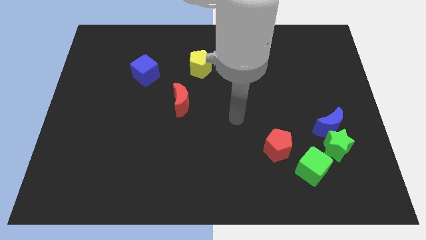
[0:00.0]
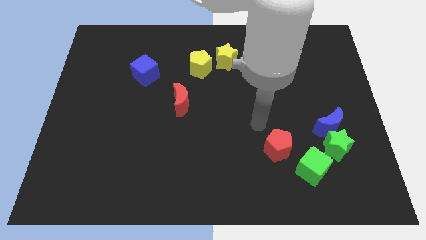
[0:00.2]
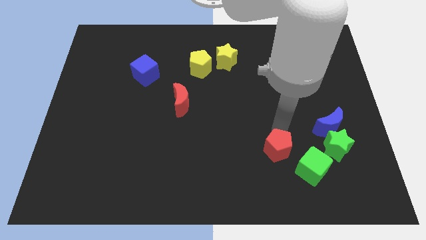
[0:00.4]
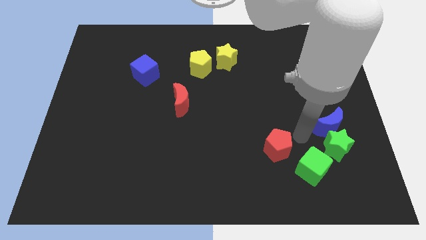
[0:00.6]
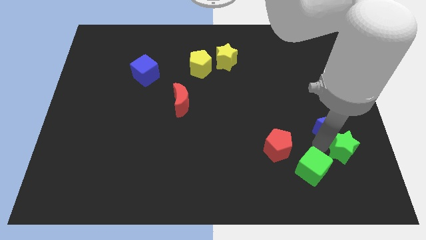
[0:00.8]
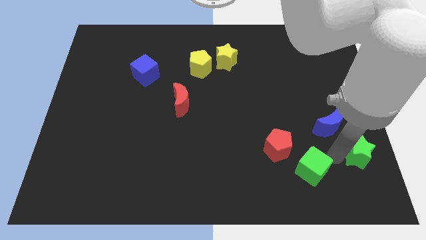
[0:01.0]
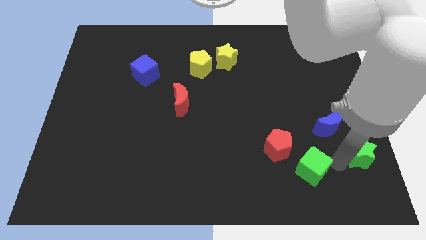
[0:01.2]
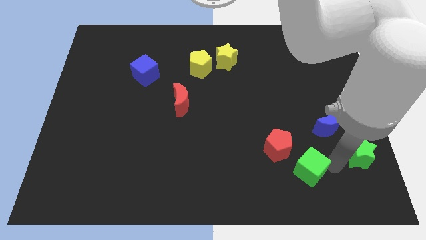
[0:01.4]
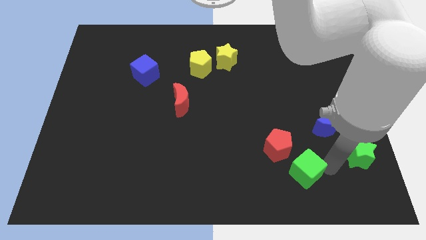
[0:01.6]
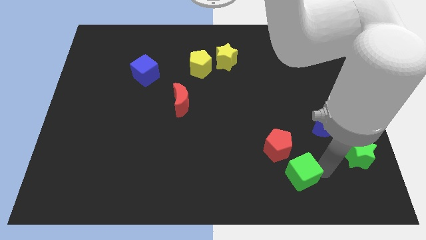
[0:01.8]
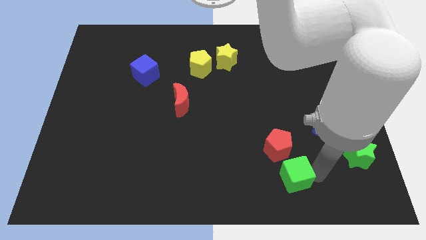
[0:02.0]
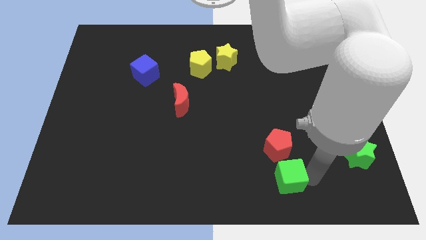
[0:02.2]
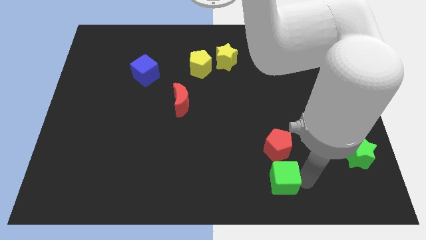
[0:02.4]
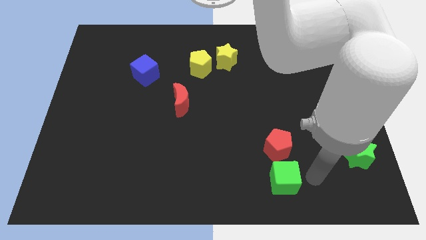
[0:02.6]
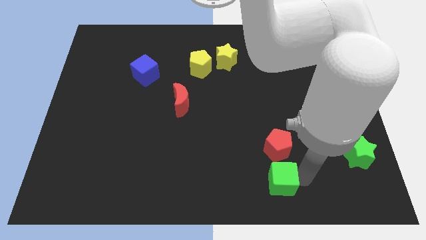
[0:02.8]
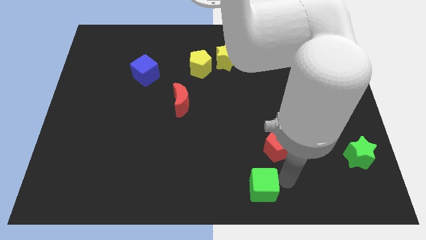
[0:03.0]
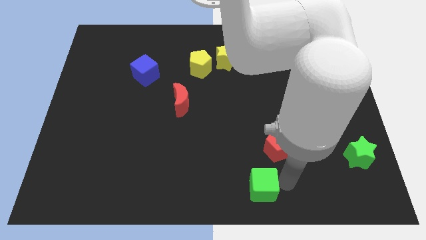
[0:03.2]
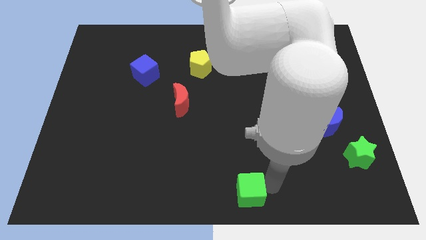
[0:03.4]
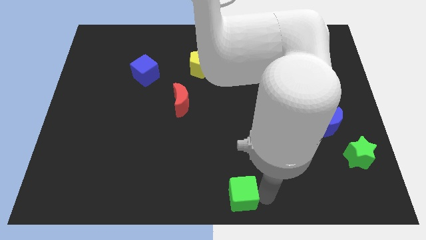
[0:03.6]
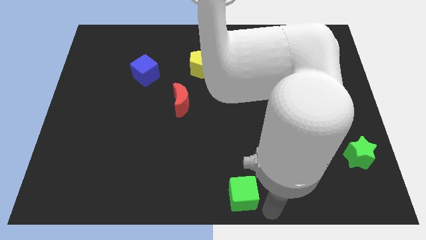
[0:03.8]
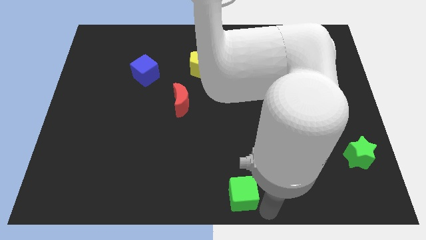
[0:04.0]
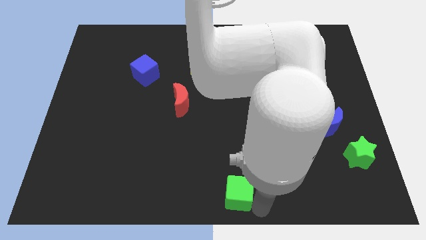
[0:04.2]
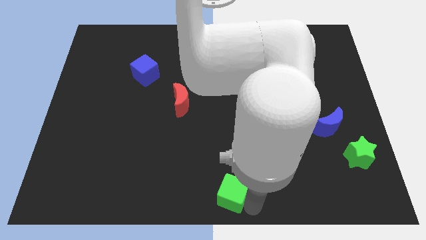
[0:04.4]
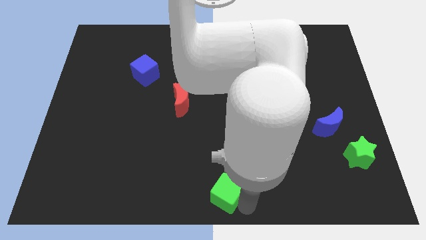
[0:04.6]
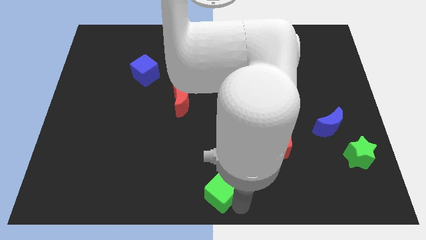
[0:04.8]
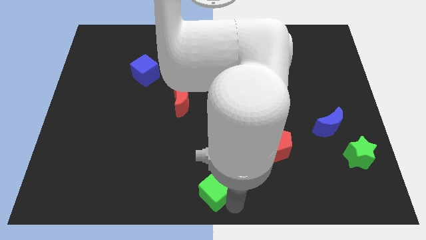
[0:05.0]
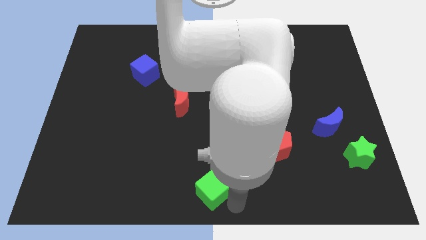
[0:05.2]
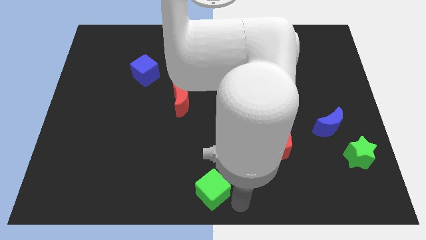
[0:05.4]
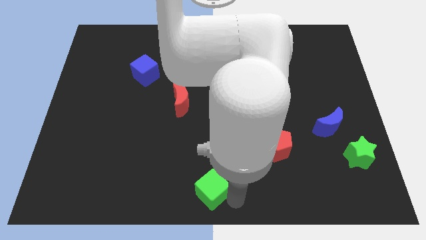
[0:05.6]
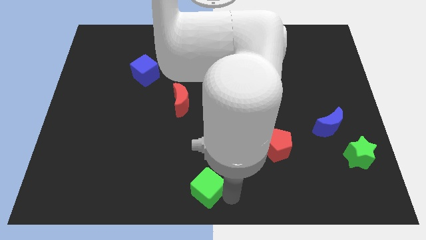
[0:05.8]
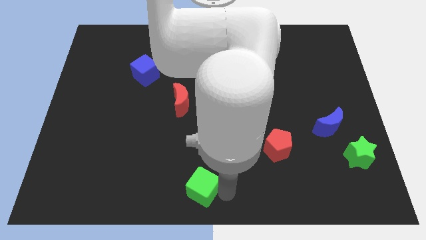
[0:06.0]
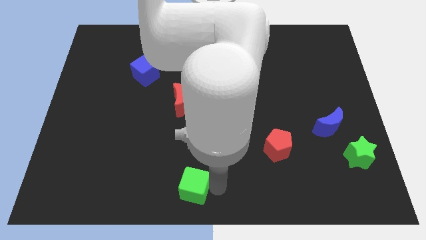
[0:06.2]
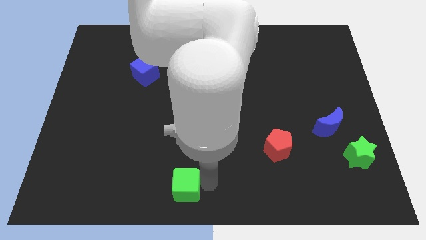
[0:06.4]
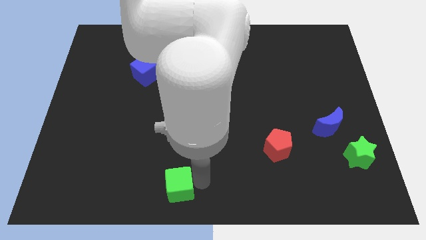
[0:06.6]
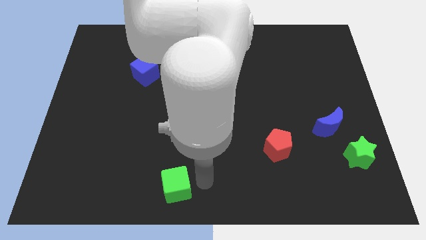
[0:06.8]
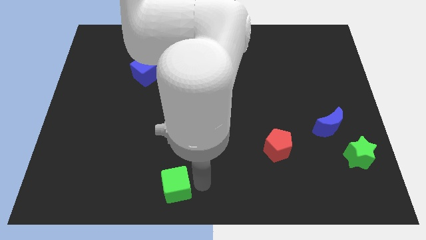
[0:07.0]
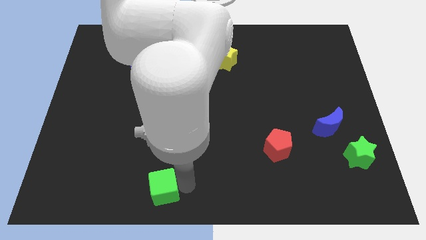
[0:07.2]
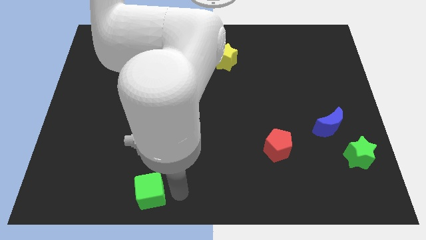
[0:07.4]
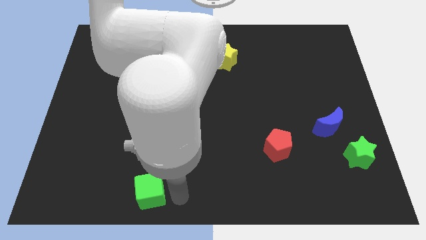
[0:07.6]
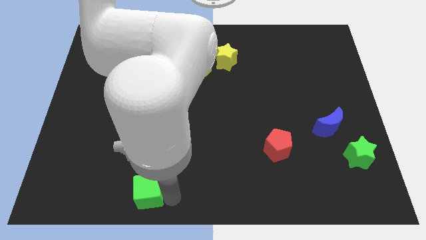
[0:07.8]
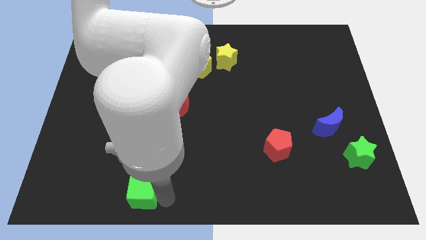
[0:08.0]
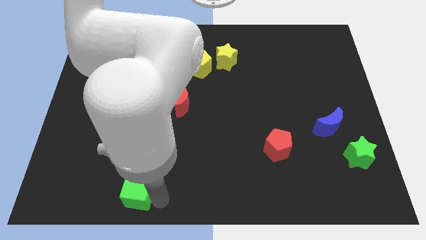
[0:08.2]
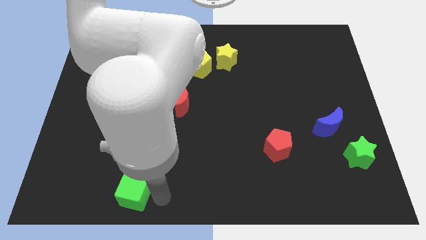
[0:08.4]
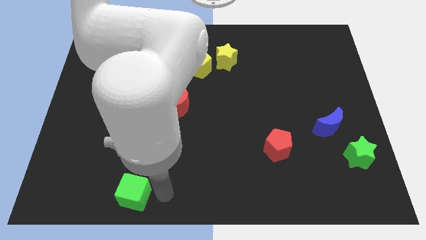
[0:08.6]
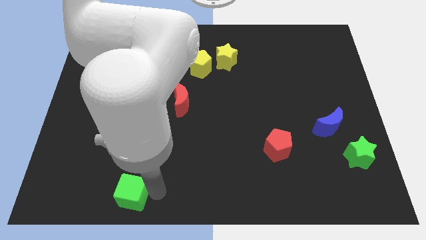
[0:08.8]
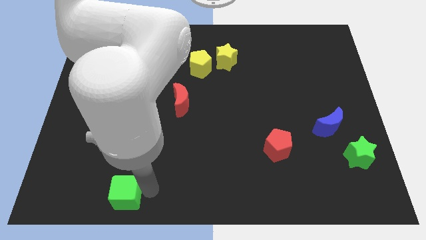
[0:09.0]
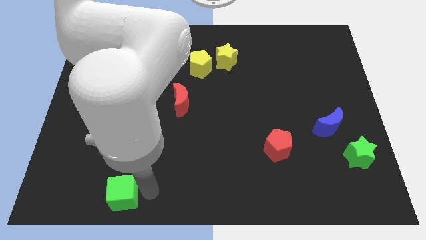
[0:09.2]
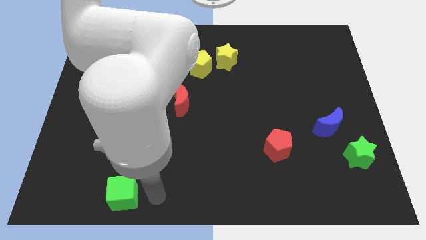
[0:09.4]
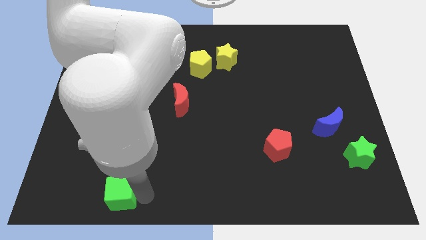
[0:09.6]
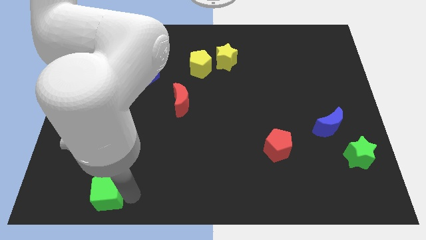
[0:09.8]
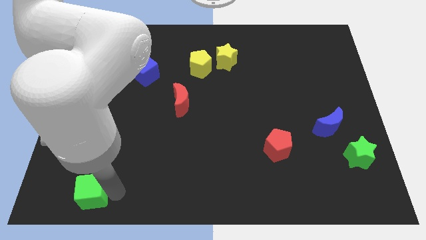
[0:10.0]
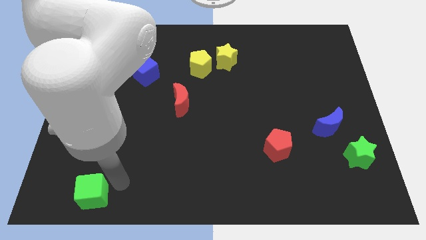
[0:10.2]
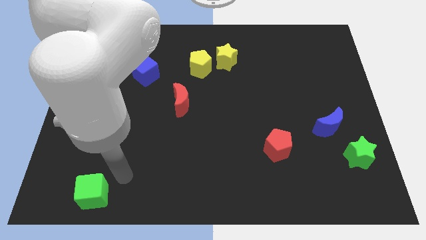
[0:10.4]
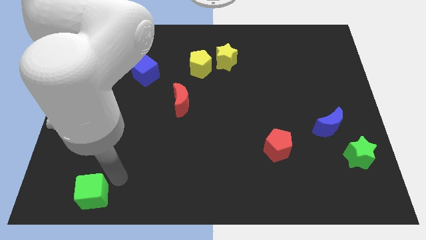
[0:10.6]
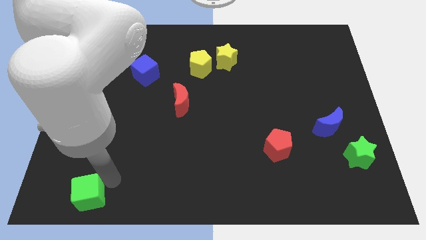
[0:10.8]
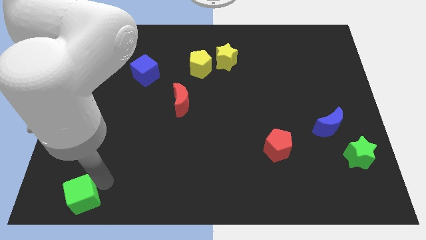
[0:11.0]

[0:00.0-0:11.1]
move the green cube to the bottom left of the board
